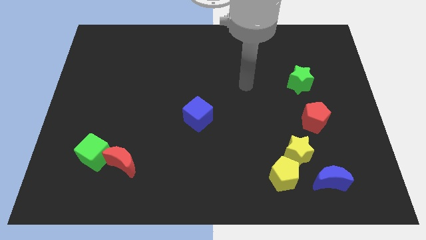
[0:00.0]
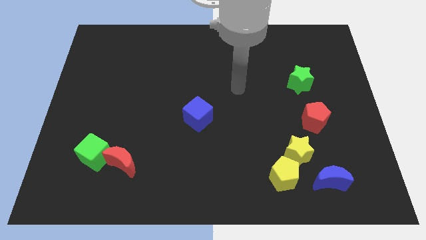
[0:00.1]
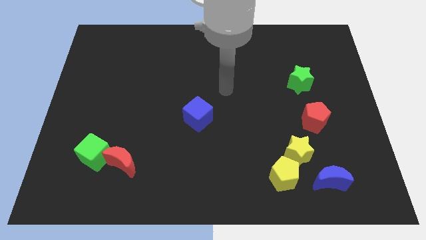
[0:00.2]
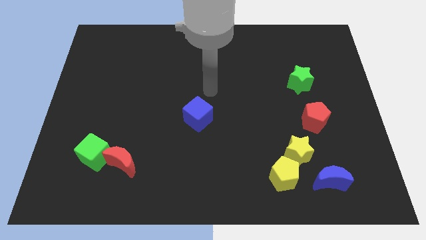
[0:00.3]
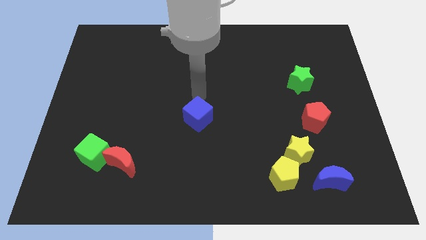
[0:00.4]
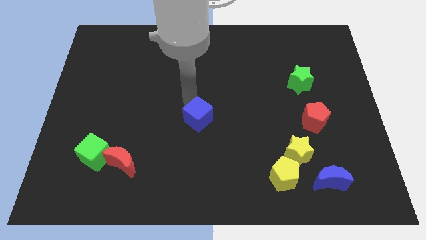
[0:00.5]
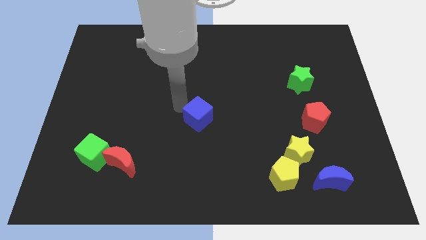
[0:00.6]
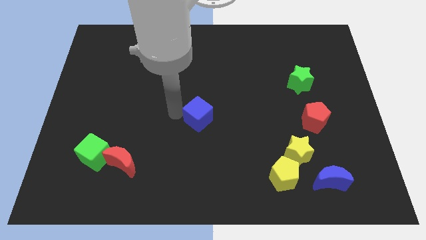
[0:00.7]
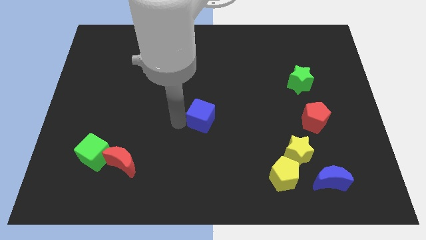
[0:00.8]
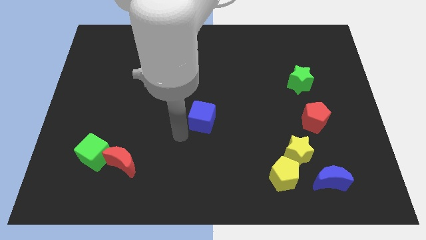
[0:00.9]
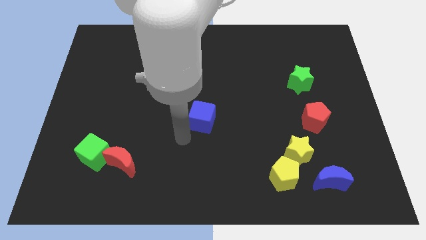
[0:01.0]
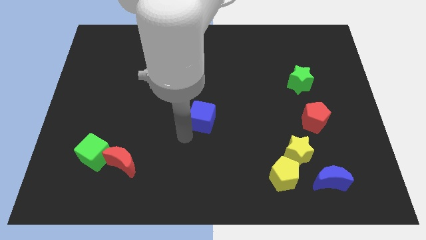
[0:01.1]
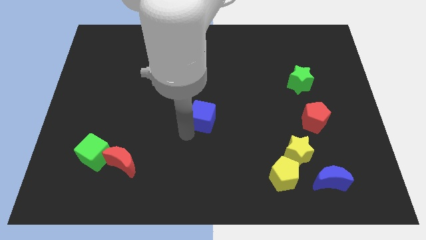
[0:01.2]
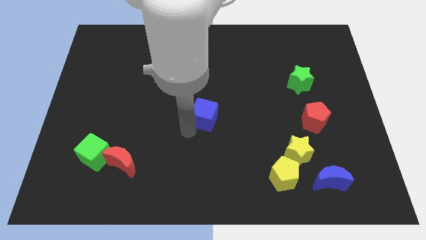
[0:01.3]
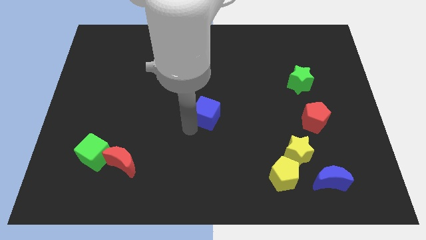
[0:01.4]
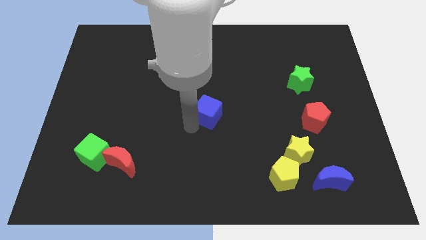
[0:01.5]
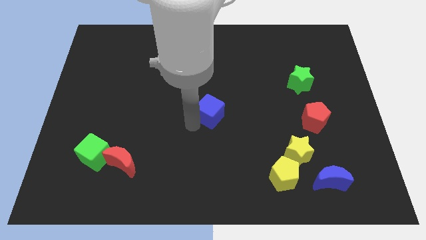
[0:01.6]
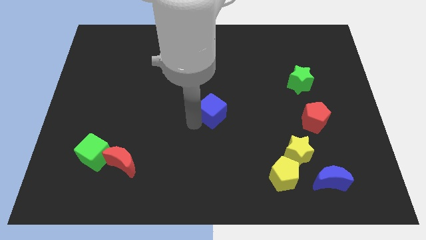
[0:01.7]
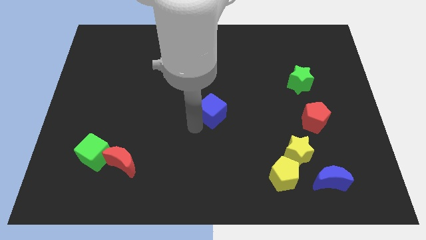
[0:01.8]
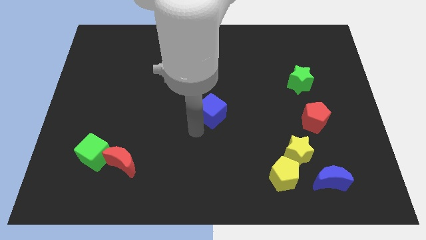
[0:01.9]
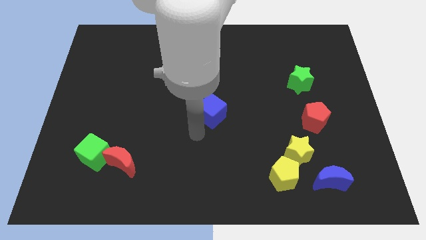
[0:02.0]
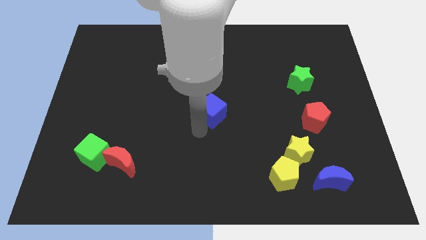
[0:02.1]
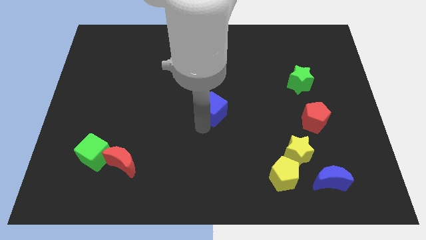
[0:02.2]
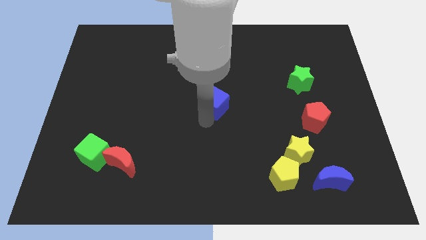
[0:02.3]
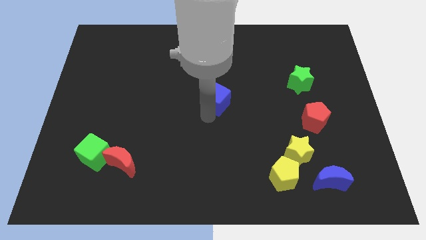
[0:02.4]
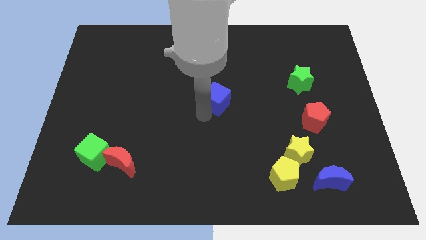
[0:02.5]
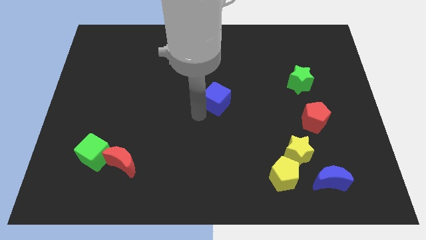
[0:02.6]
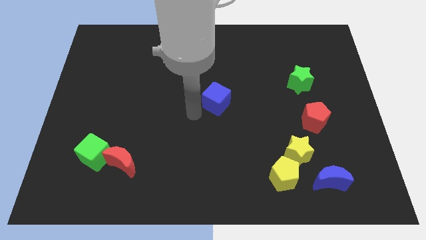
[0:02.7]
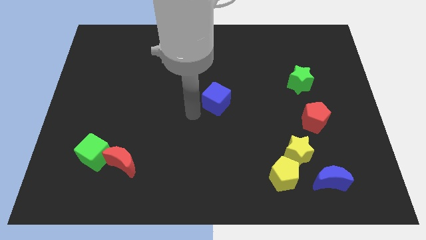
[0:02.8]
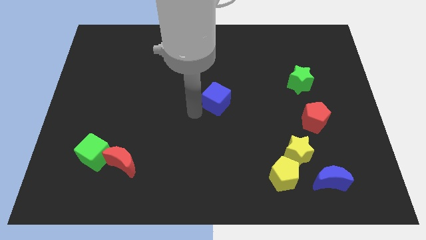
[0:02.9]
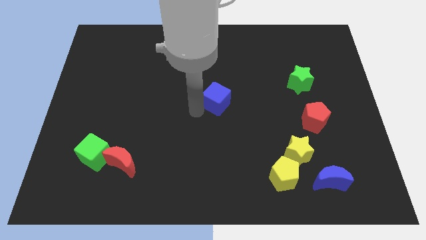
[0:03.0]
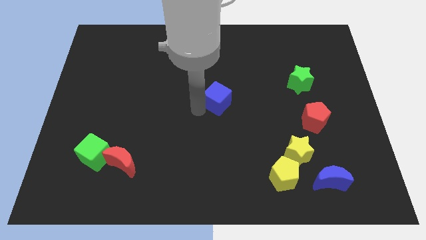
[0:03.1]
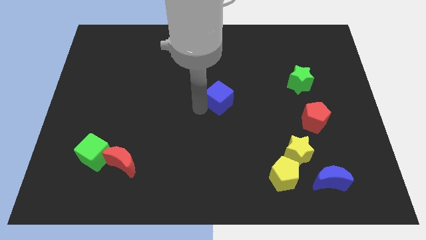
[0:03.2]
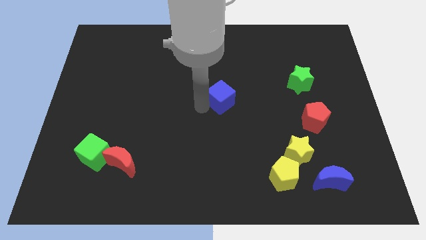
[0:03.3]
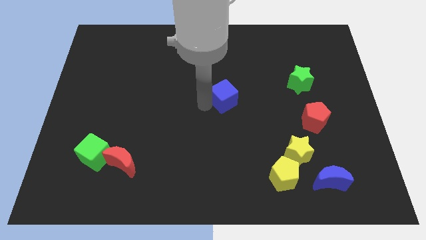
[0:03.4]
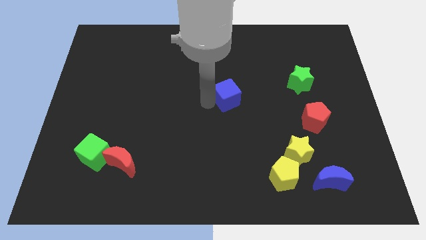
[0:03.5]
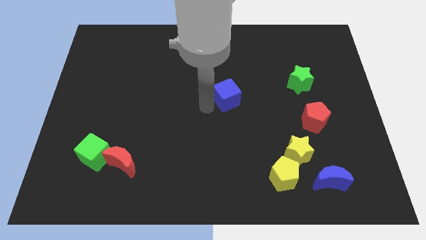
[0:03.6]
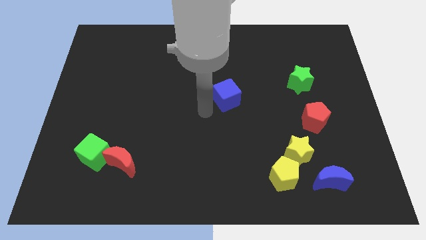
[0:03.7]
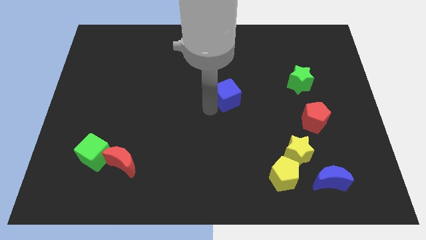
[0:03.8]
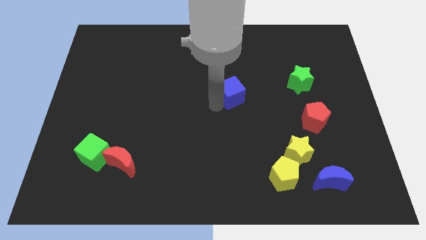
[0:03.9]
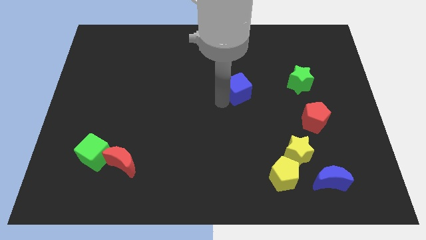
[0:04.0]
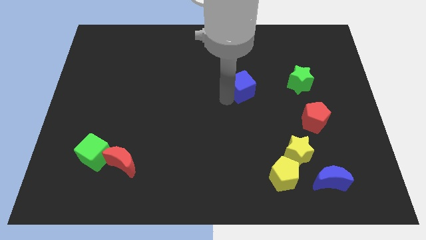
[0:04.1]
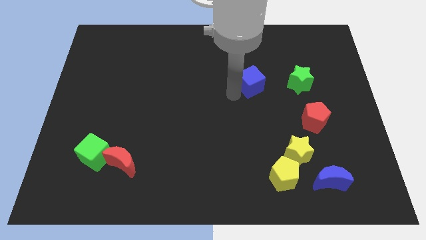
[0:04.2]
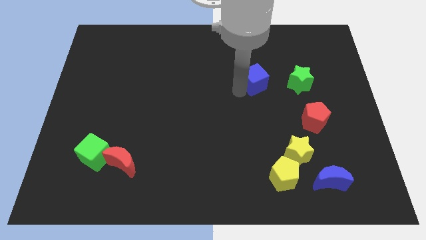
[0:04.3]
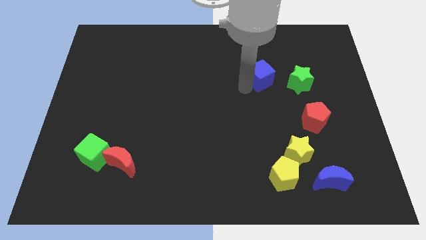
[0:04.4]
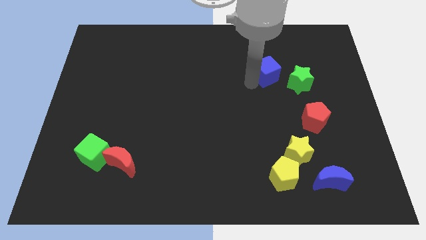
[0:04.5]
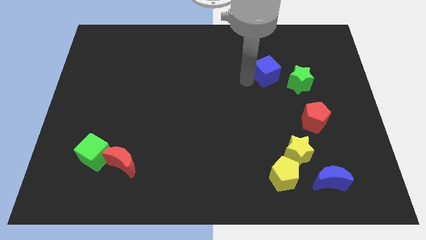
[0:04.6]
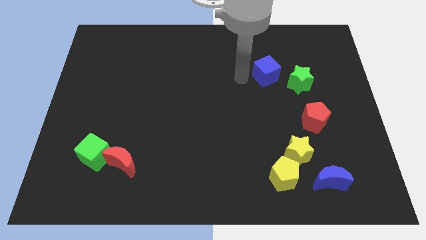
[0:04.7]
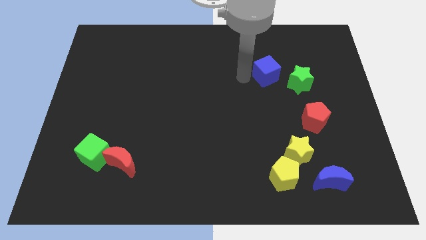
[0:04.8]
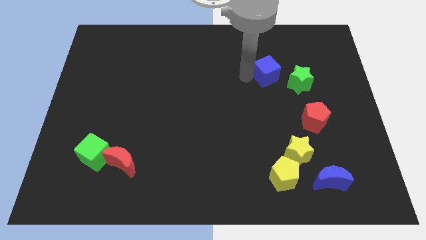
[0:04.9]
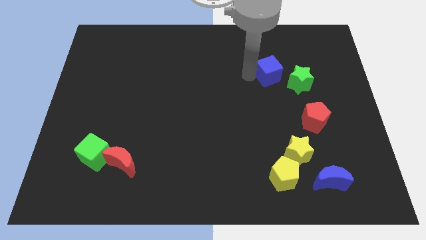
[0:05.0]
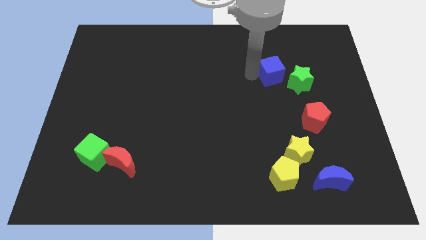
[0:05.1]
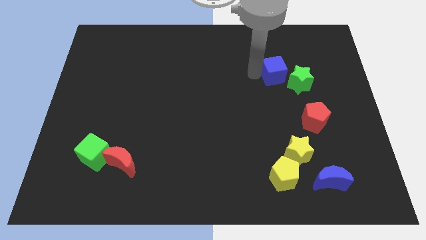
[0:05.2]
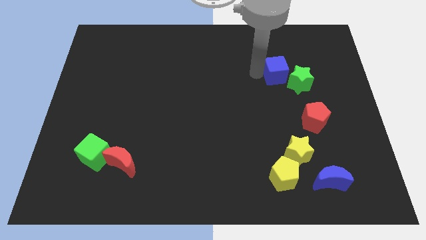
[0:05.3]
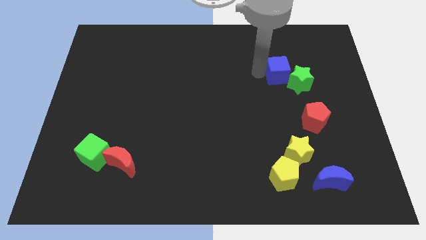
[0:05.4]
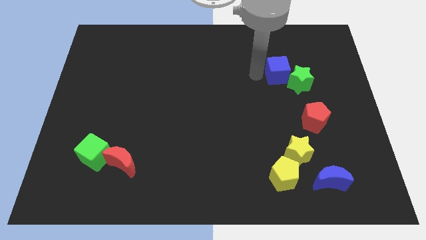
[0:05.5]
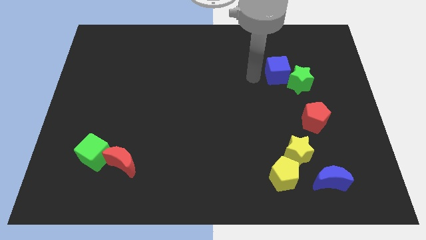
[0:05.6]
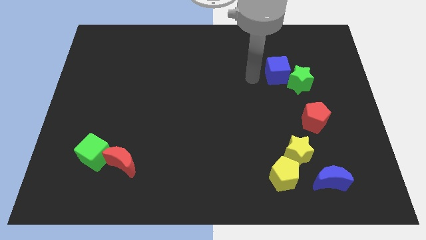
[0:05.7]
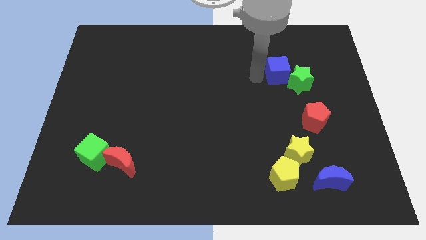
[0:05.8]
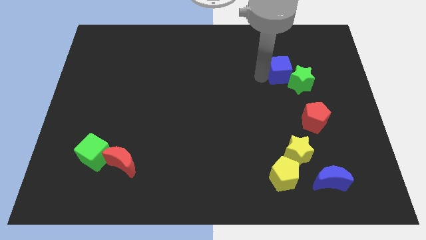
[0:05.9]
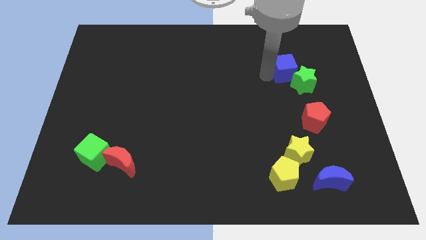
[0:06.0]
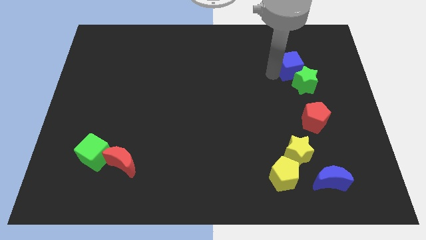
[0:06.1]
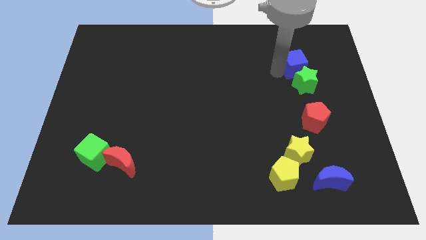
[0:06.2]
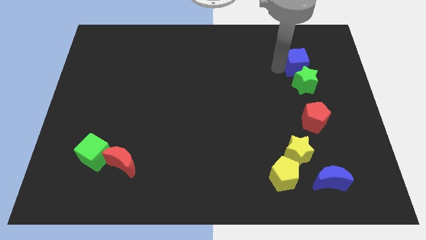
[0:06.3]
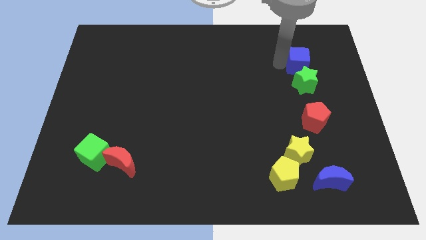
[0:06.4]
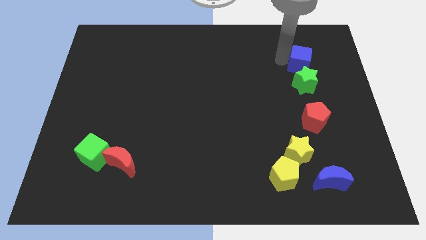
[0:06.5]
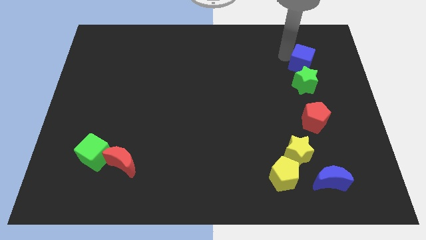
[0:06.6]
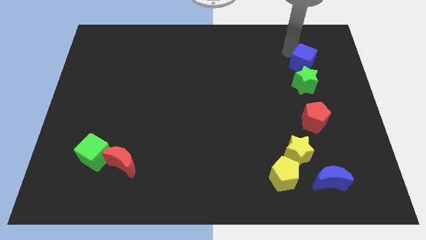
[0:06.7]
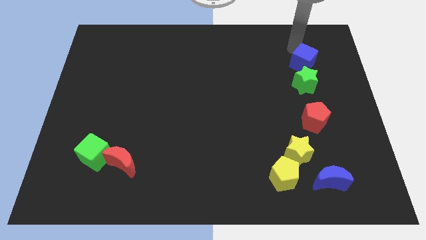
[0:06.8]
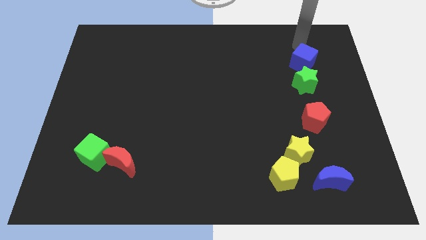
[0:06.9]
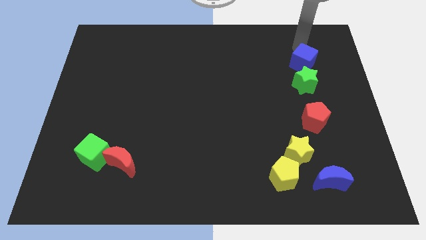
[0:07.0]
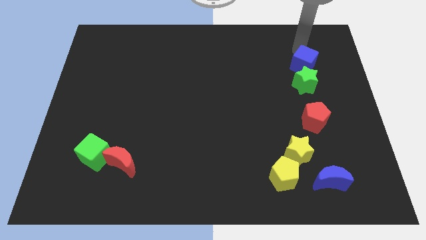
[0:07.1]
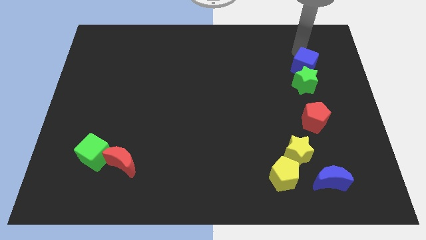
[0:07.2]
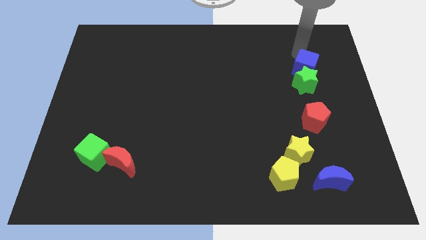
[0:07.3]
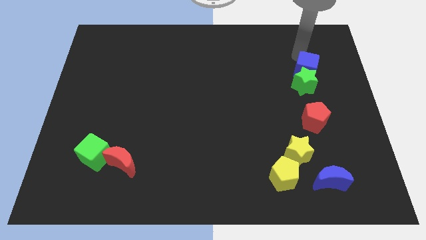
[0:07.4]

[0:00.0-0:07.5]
slide the blue cube to the top side of the red pentagon

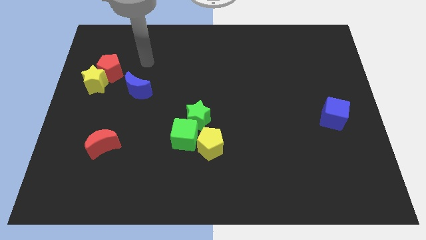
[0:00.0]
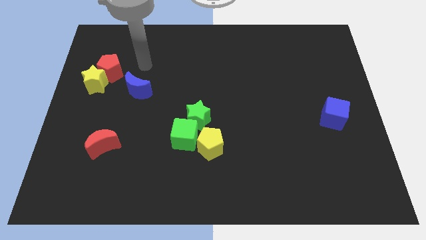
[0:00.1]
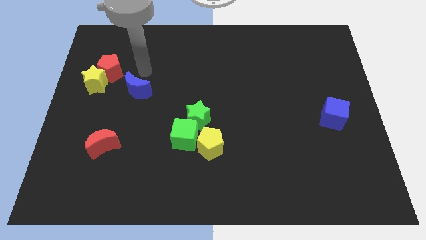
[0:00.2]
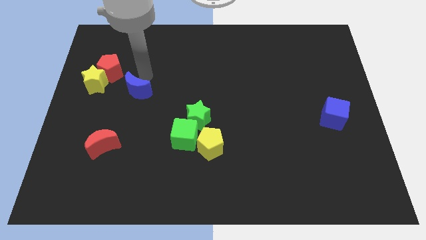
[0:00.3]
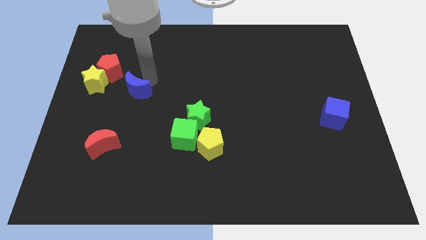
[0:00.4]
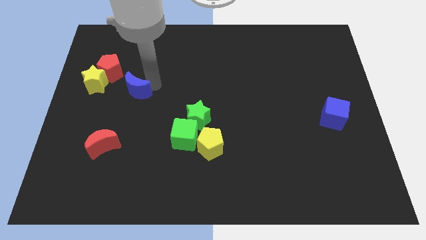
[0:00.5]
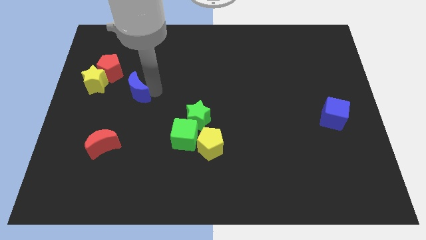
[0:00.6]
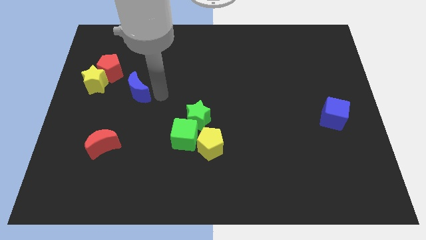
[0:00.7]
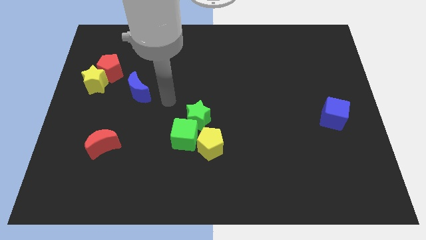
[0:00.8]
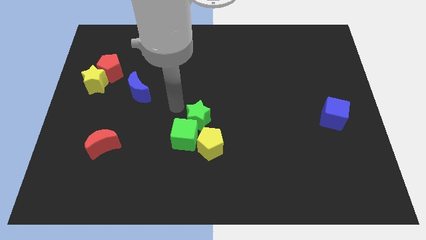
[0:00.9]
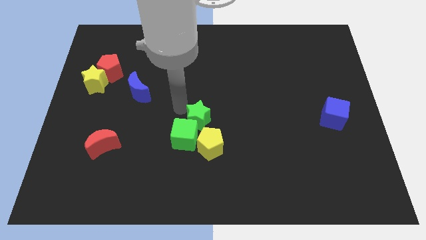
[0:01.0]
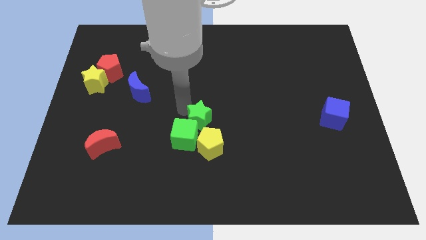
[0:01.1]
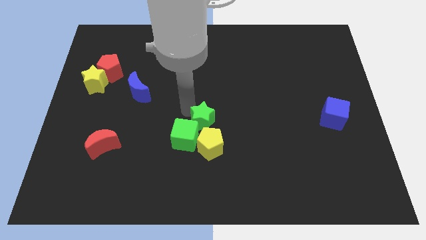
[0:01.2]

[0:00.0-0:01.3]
slide the green star to the right of the green cube
